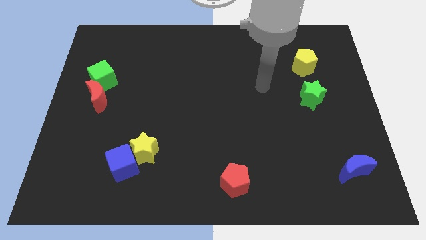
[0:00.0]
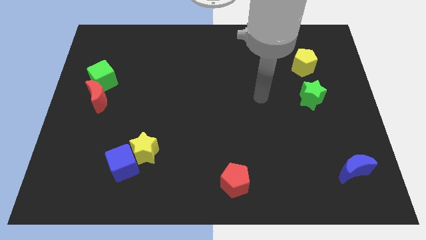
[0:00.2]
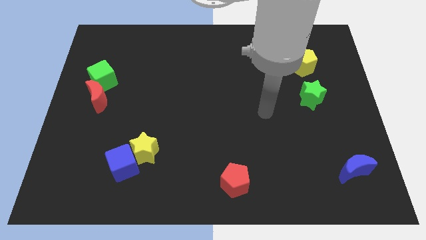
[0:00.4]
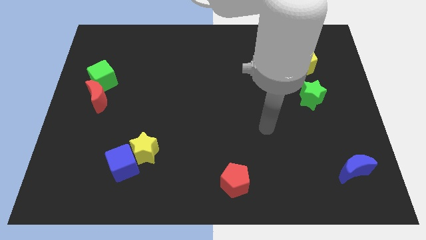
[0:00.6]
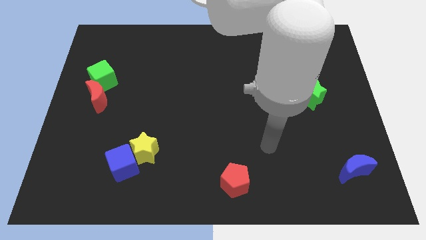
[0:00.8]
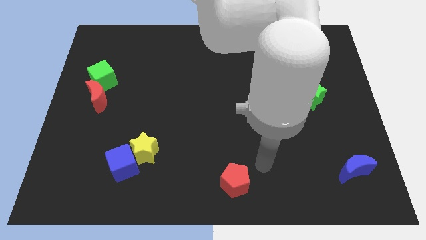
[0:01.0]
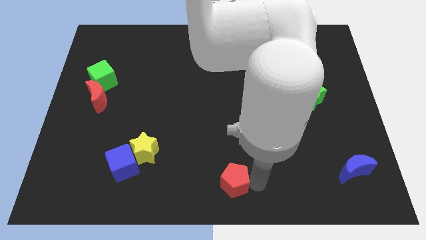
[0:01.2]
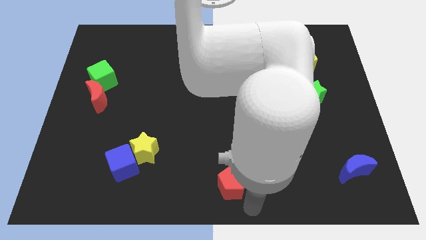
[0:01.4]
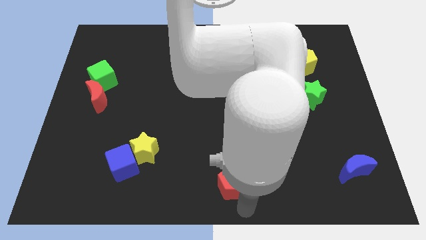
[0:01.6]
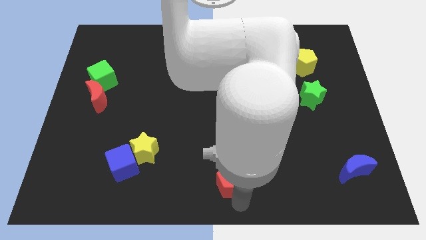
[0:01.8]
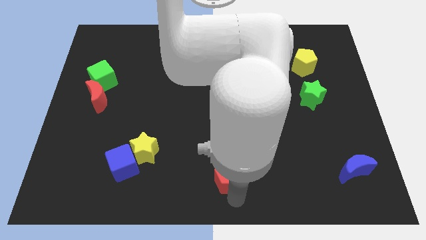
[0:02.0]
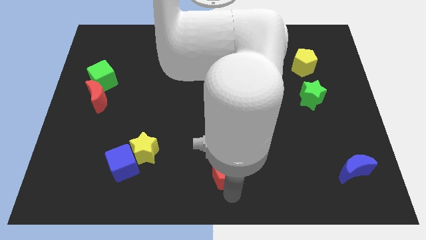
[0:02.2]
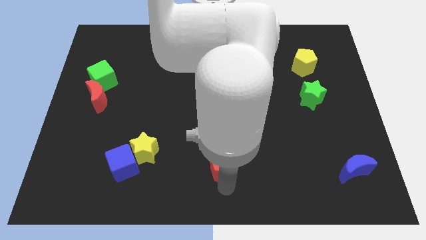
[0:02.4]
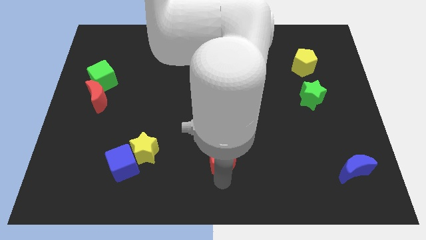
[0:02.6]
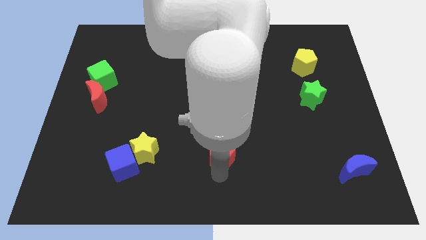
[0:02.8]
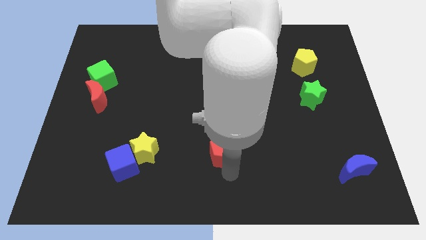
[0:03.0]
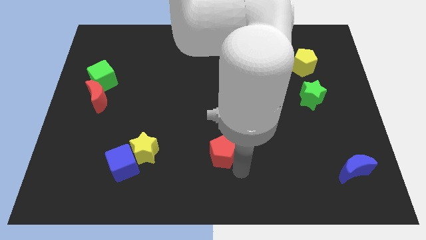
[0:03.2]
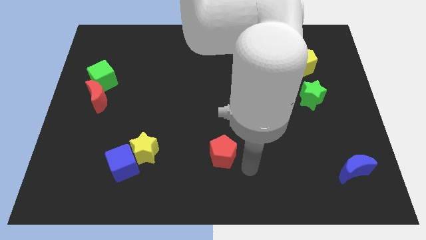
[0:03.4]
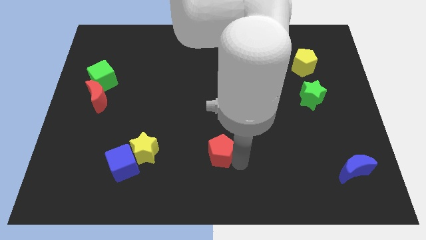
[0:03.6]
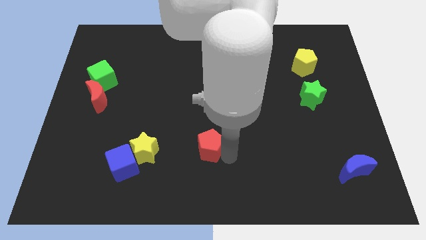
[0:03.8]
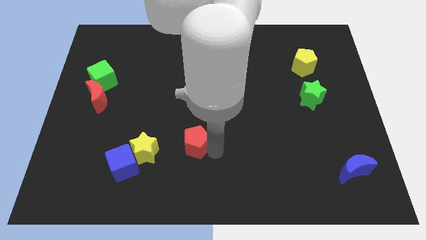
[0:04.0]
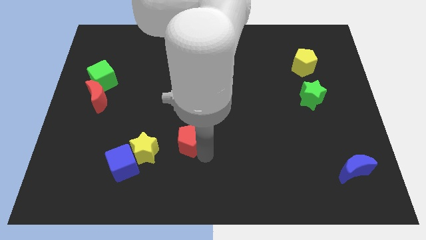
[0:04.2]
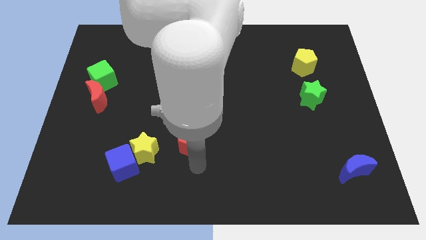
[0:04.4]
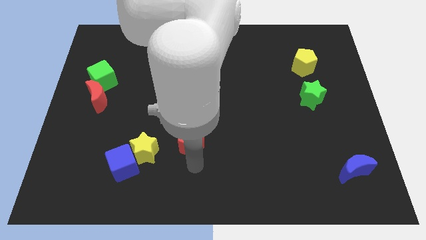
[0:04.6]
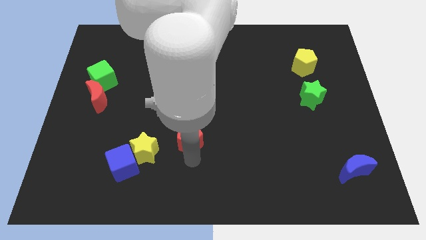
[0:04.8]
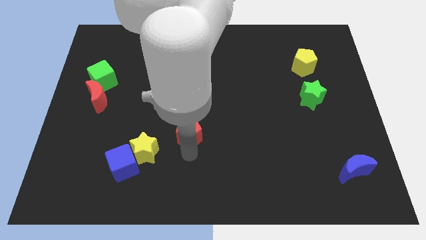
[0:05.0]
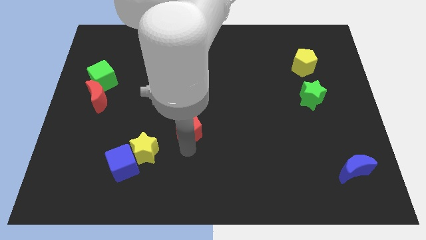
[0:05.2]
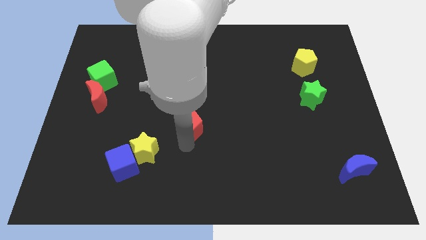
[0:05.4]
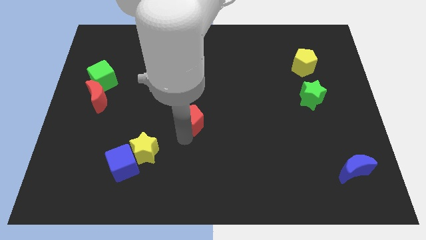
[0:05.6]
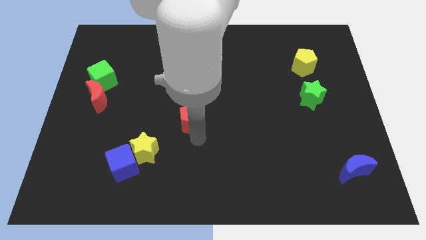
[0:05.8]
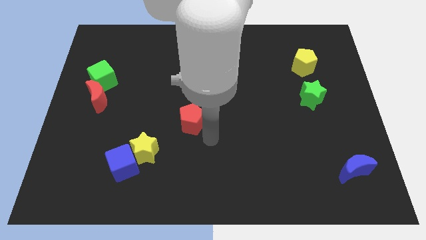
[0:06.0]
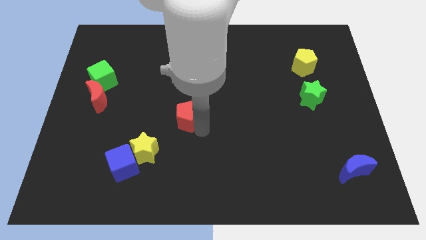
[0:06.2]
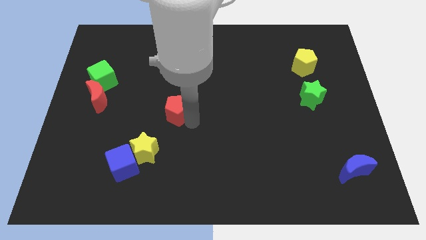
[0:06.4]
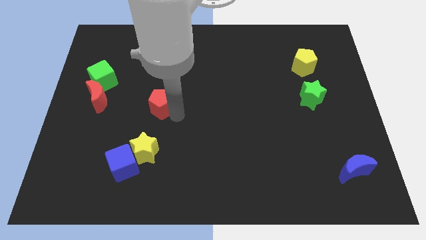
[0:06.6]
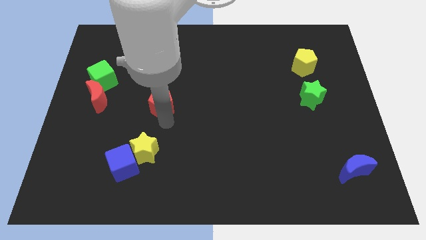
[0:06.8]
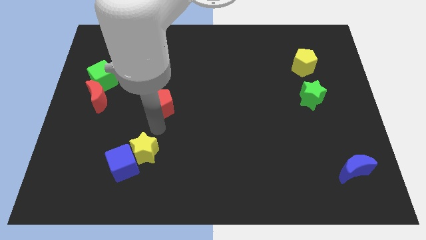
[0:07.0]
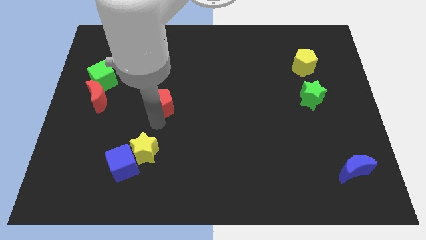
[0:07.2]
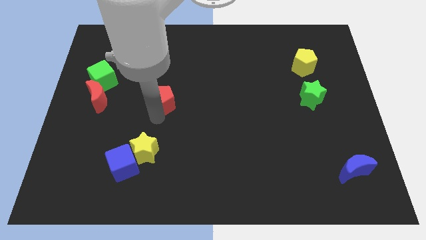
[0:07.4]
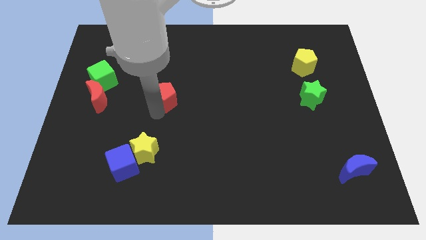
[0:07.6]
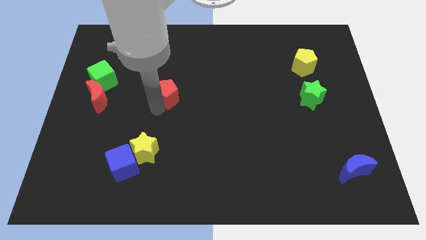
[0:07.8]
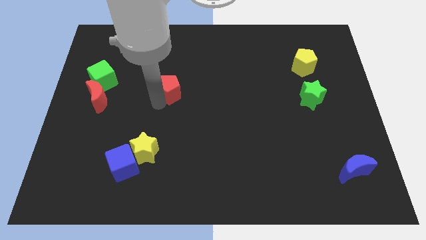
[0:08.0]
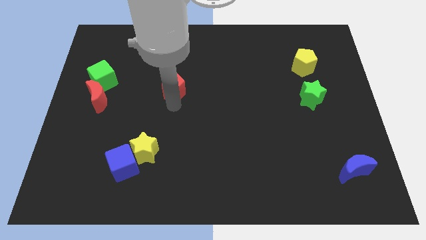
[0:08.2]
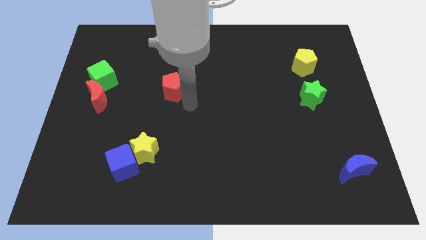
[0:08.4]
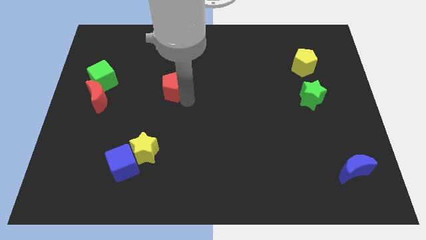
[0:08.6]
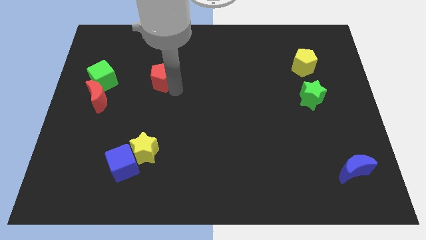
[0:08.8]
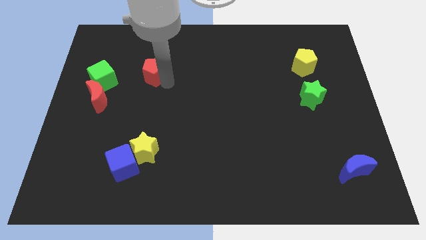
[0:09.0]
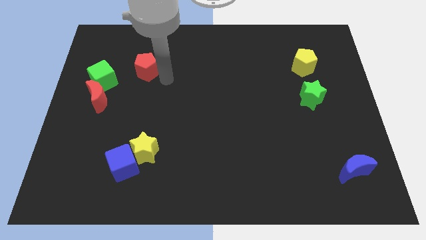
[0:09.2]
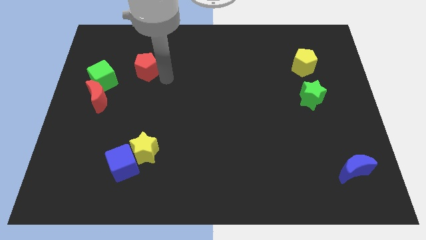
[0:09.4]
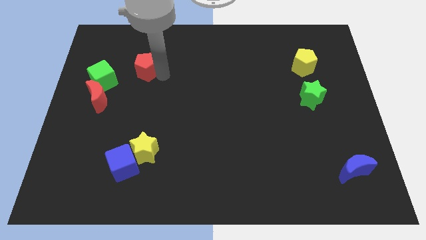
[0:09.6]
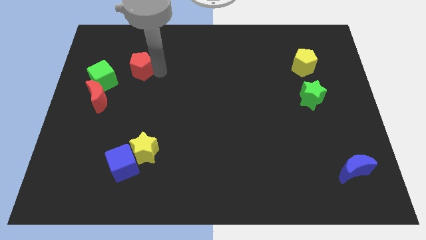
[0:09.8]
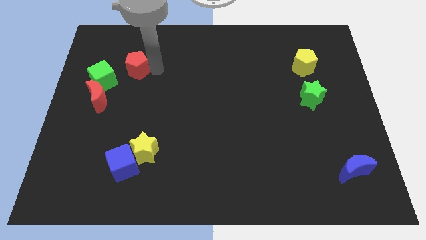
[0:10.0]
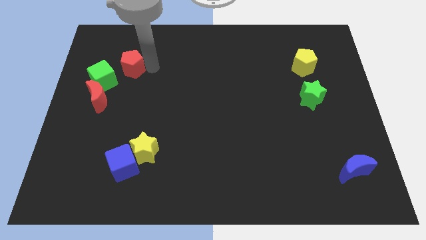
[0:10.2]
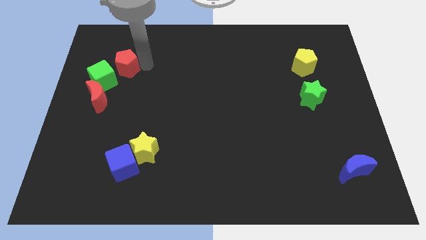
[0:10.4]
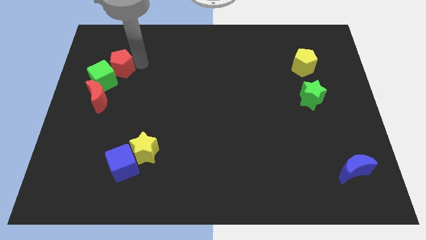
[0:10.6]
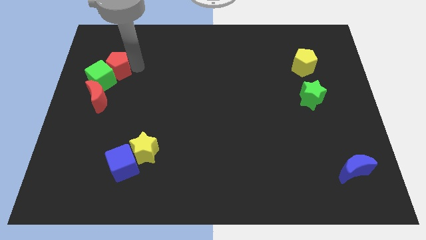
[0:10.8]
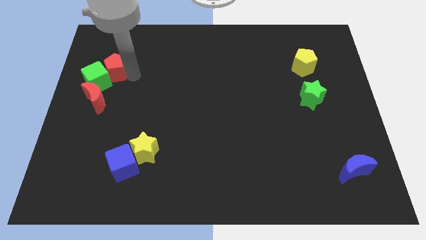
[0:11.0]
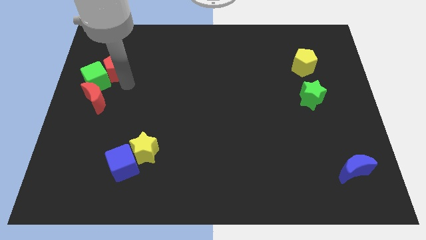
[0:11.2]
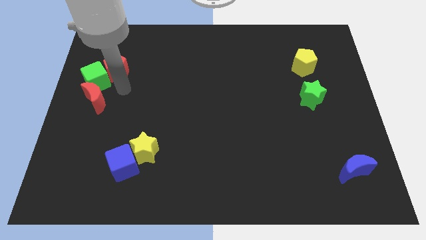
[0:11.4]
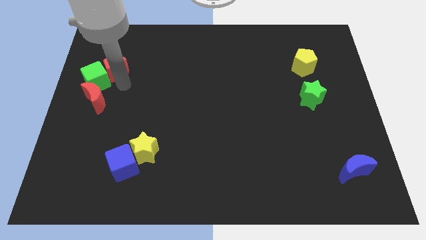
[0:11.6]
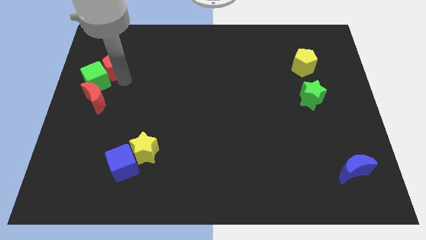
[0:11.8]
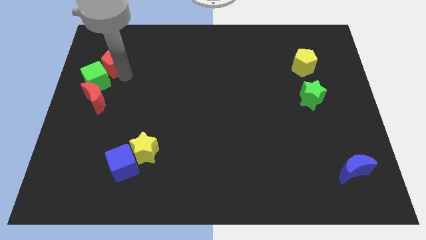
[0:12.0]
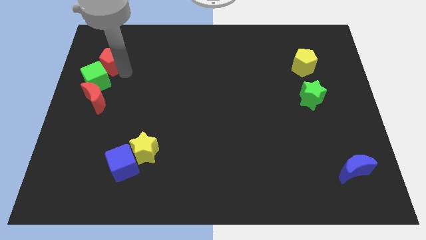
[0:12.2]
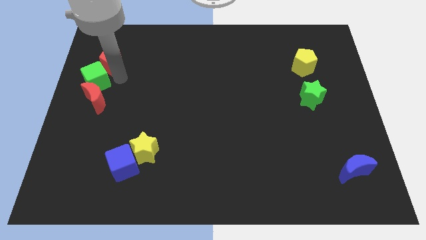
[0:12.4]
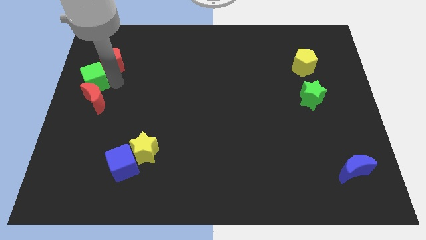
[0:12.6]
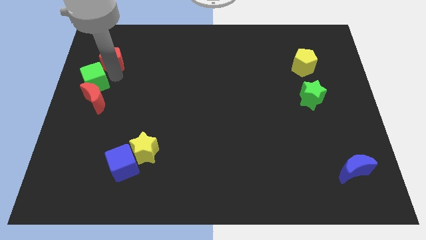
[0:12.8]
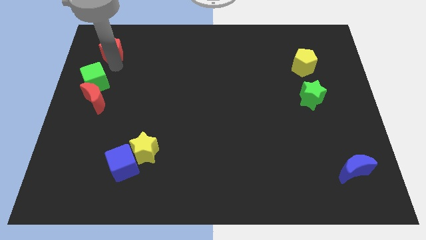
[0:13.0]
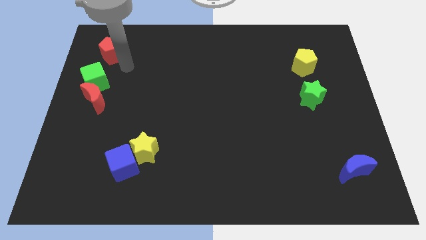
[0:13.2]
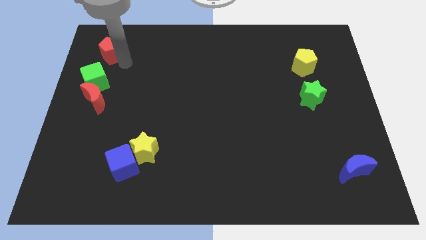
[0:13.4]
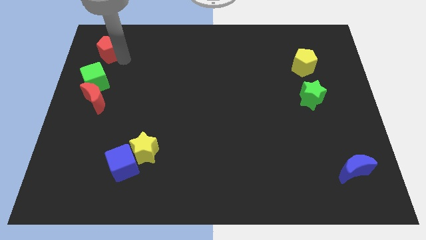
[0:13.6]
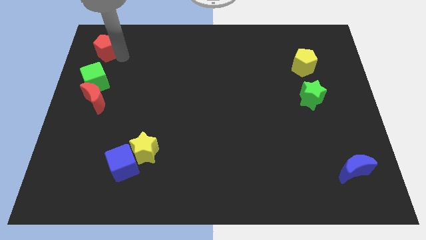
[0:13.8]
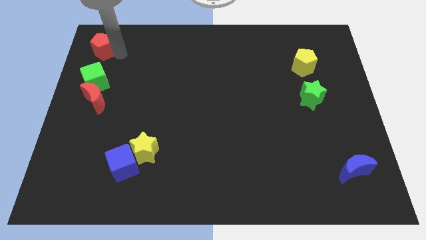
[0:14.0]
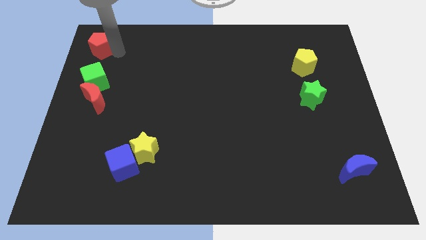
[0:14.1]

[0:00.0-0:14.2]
slide the red pentagon to the top left corner

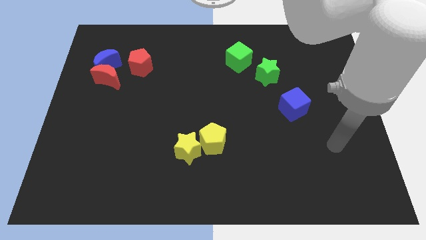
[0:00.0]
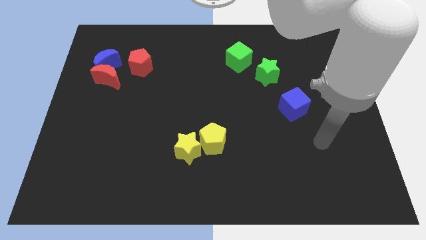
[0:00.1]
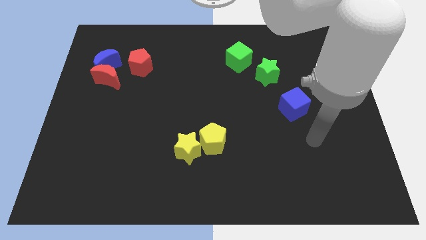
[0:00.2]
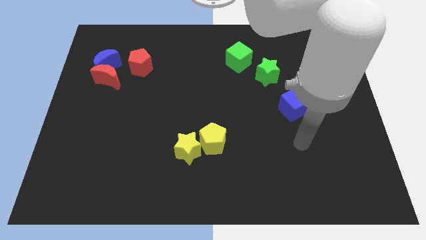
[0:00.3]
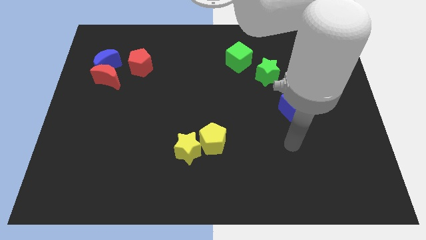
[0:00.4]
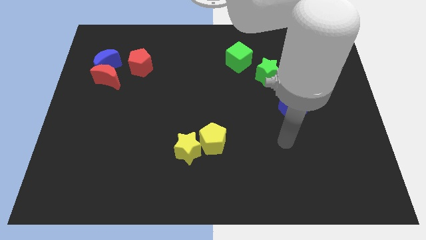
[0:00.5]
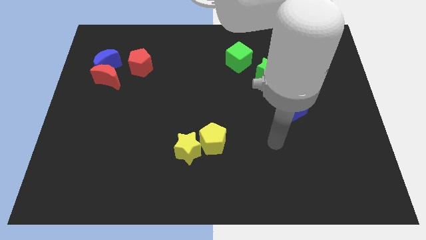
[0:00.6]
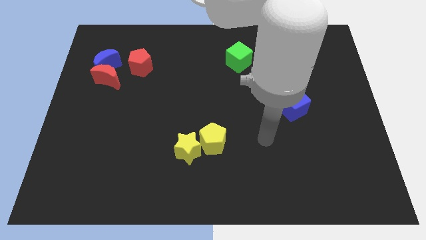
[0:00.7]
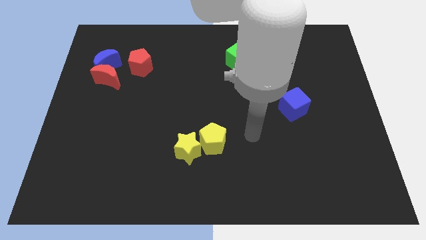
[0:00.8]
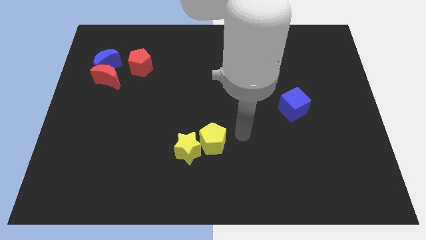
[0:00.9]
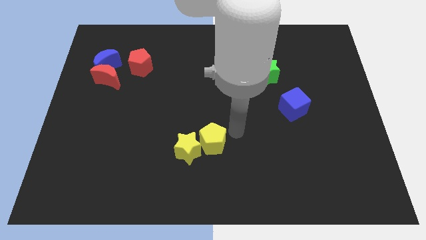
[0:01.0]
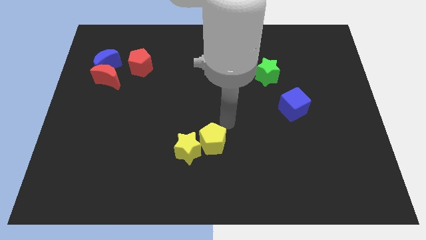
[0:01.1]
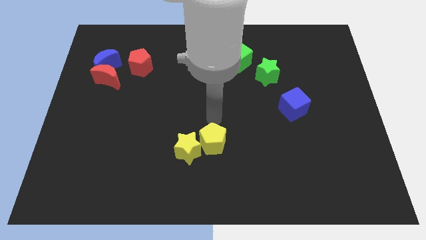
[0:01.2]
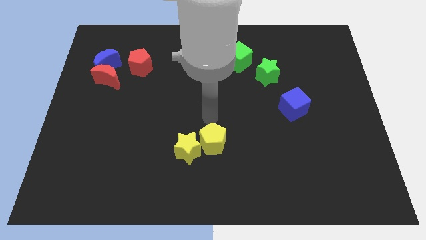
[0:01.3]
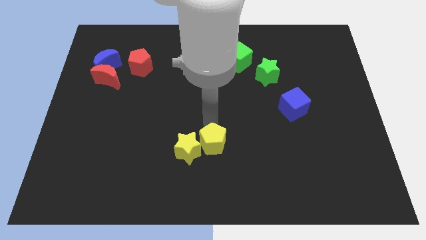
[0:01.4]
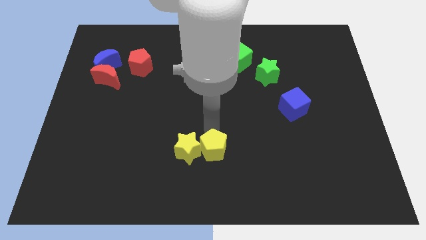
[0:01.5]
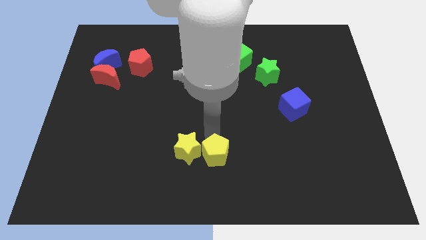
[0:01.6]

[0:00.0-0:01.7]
move the yellow pentagon to the bottom side
